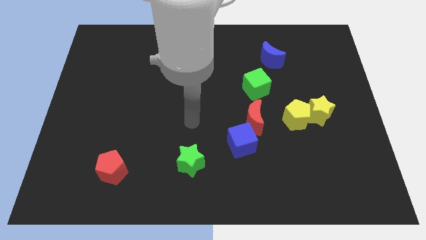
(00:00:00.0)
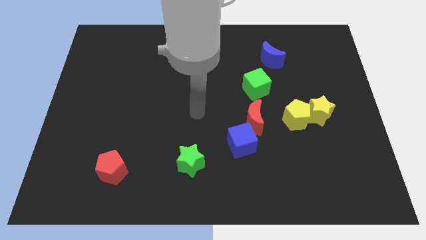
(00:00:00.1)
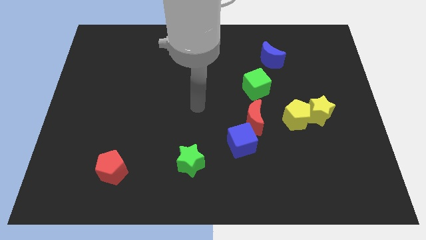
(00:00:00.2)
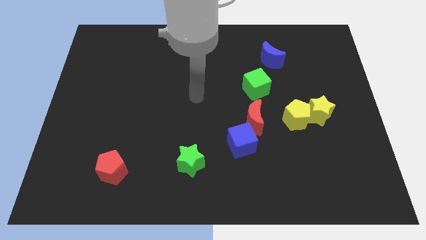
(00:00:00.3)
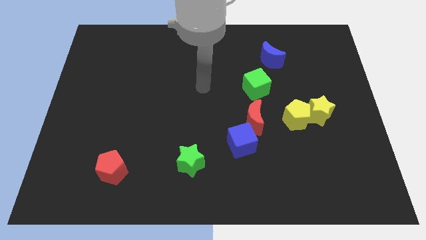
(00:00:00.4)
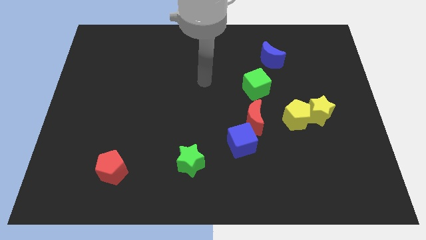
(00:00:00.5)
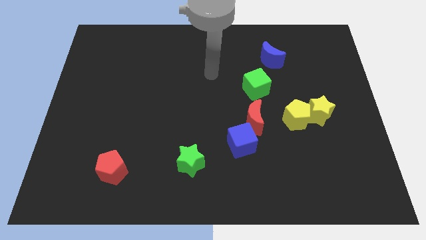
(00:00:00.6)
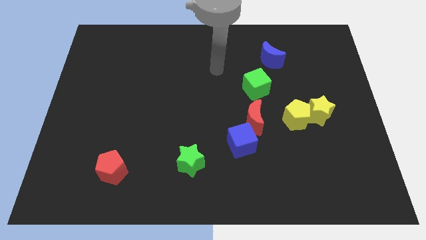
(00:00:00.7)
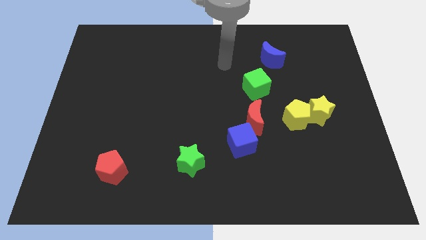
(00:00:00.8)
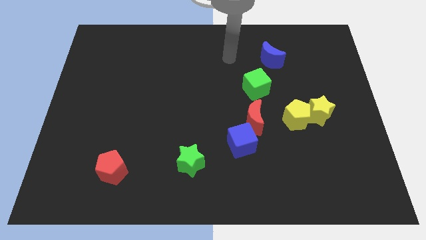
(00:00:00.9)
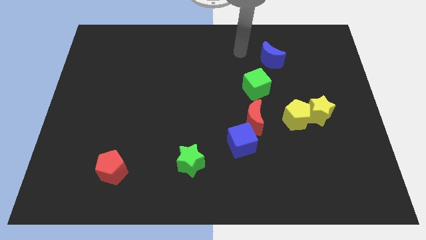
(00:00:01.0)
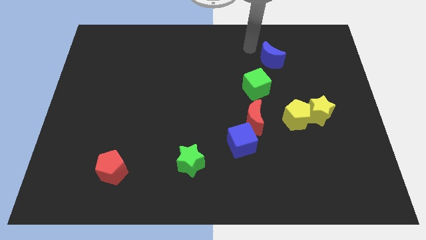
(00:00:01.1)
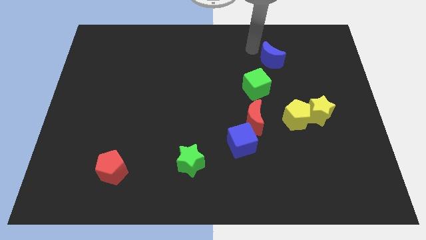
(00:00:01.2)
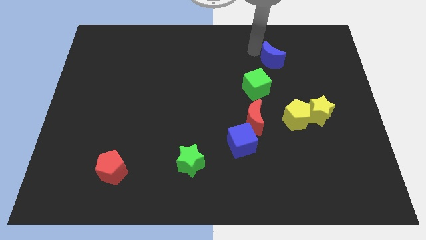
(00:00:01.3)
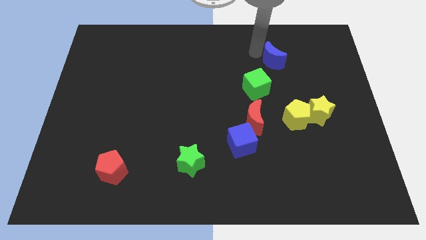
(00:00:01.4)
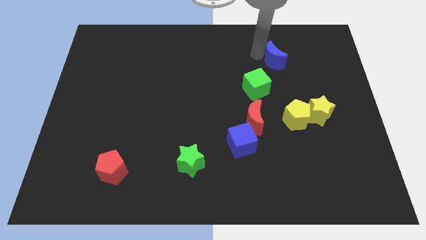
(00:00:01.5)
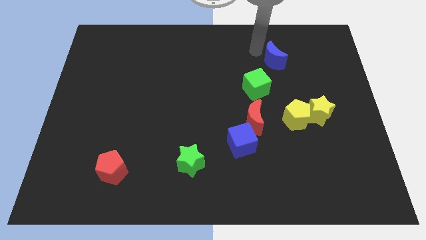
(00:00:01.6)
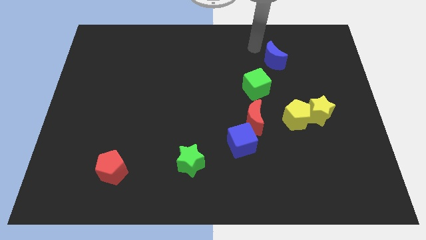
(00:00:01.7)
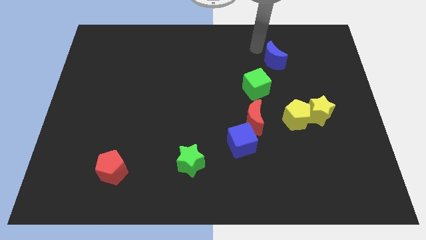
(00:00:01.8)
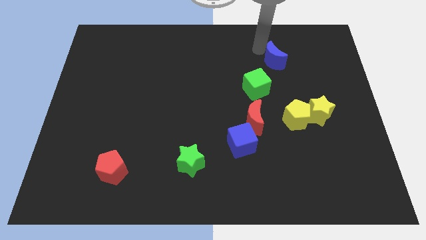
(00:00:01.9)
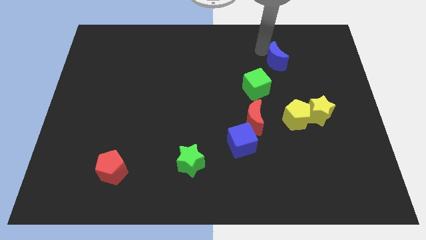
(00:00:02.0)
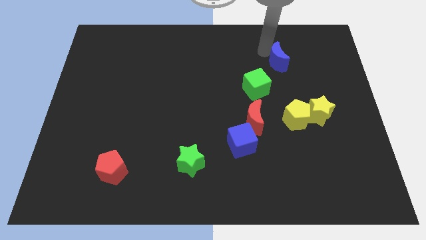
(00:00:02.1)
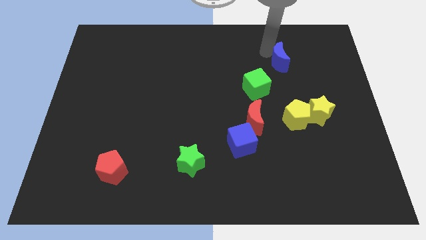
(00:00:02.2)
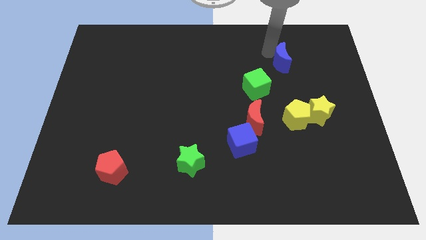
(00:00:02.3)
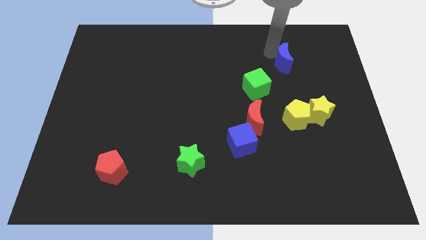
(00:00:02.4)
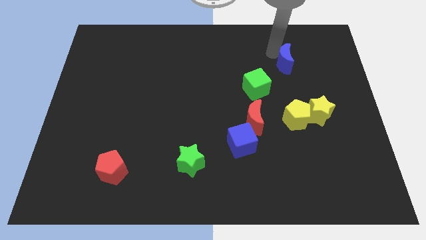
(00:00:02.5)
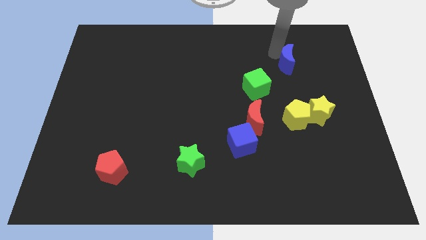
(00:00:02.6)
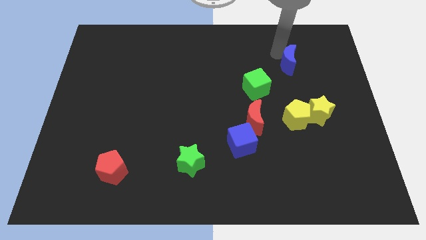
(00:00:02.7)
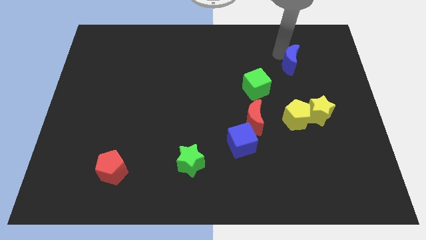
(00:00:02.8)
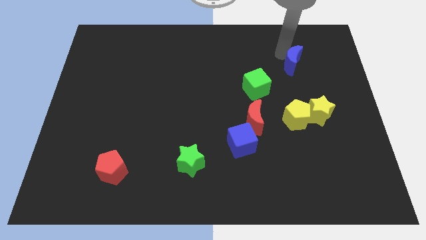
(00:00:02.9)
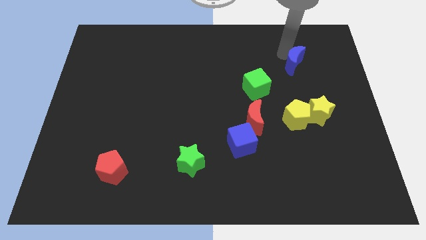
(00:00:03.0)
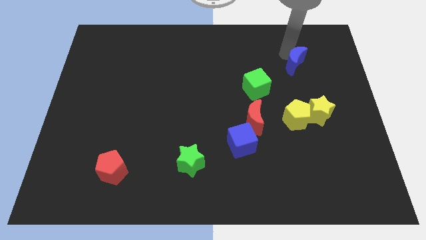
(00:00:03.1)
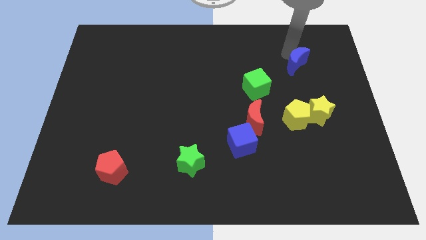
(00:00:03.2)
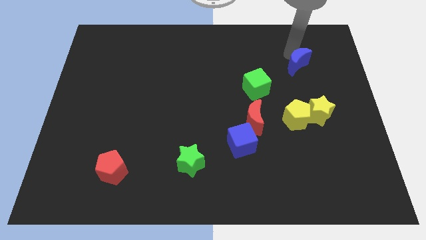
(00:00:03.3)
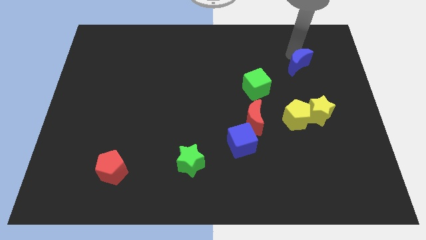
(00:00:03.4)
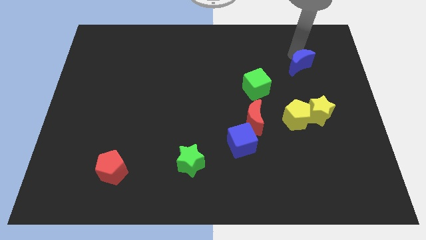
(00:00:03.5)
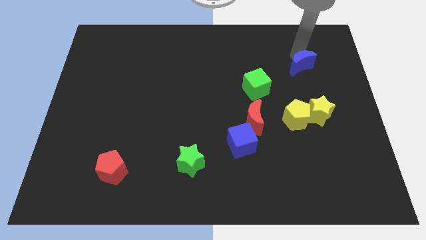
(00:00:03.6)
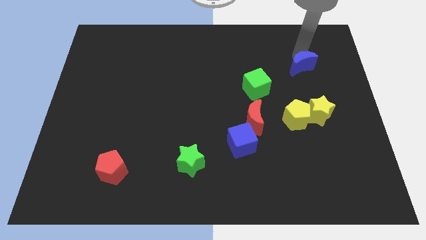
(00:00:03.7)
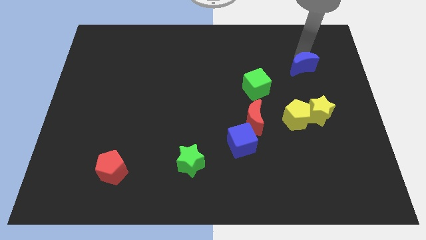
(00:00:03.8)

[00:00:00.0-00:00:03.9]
move the blue moon a bit down and then right

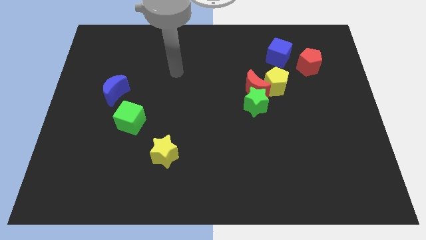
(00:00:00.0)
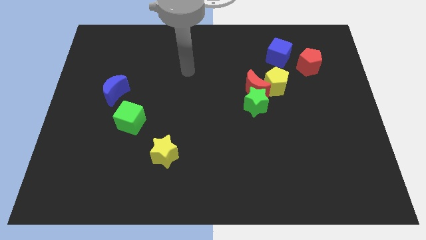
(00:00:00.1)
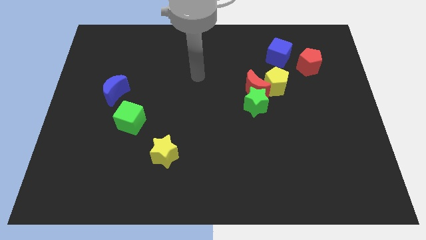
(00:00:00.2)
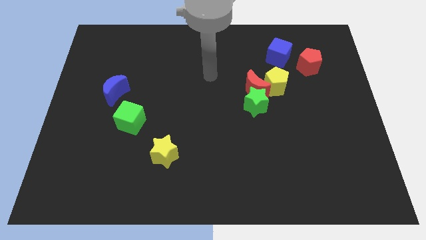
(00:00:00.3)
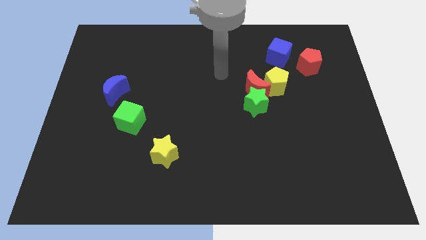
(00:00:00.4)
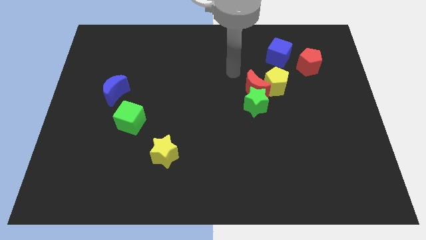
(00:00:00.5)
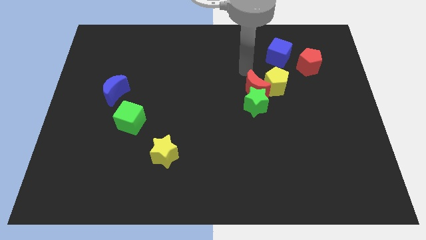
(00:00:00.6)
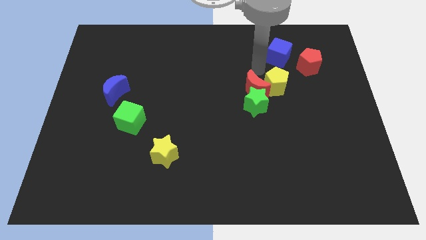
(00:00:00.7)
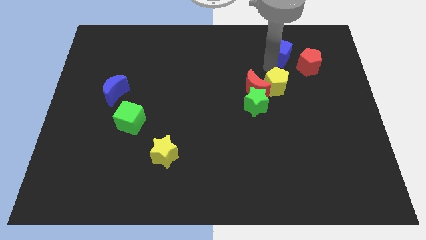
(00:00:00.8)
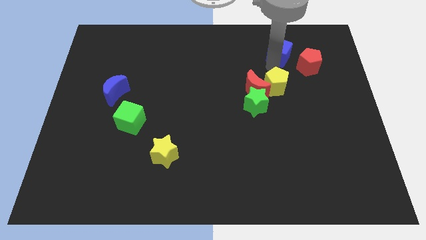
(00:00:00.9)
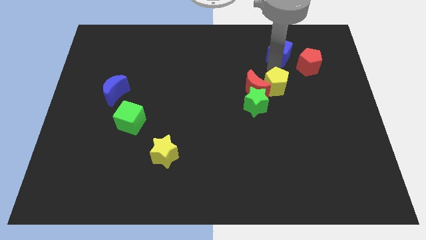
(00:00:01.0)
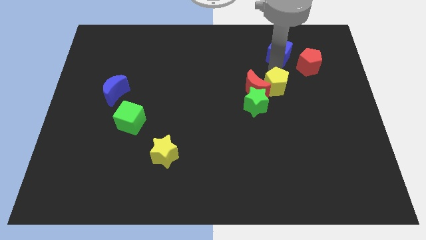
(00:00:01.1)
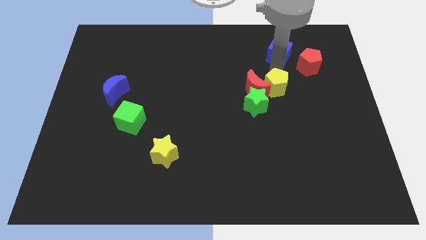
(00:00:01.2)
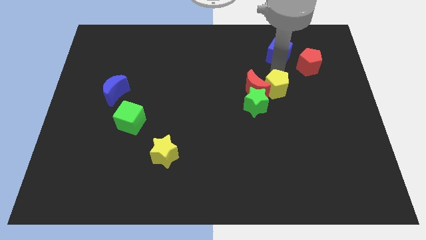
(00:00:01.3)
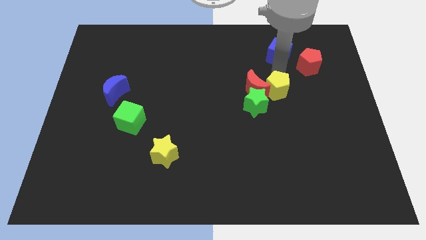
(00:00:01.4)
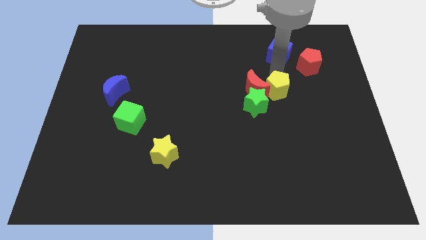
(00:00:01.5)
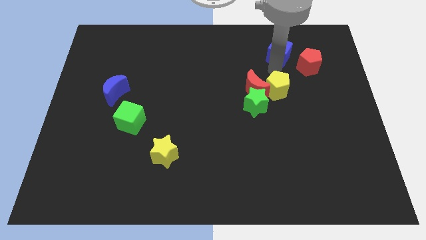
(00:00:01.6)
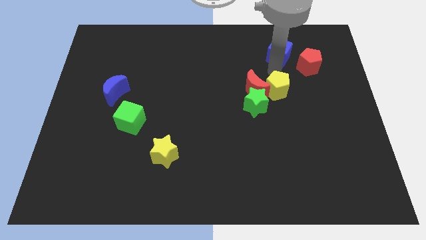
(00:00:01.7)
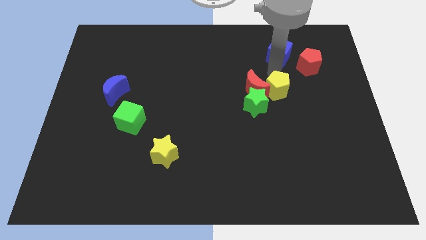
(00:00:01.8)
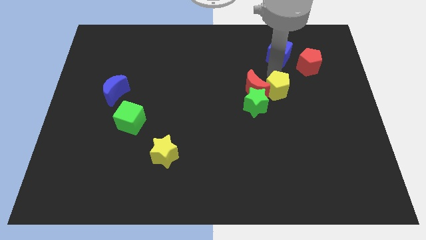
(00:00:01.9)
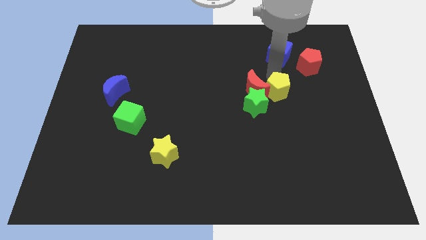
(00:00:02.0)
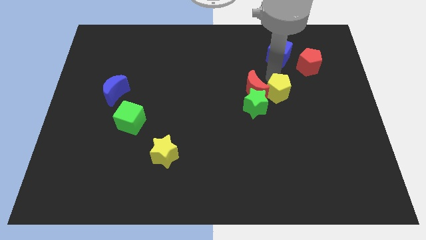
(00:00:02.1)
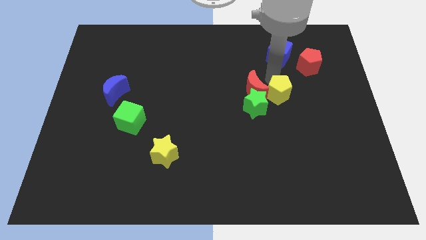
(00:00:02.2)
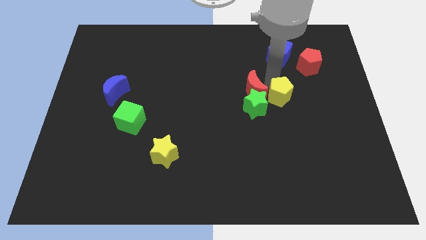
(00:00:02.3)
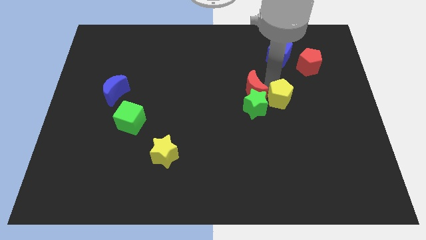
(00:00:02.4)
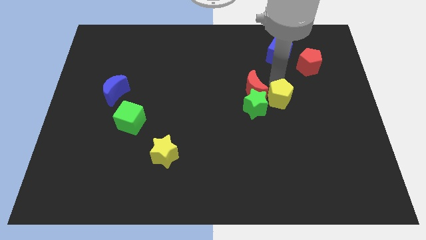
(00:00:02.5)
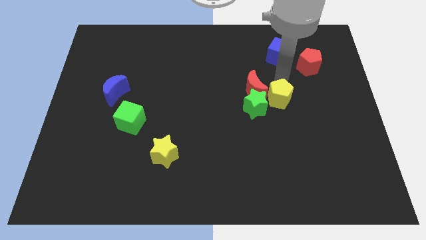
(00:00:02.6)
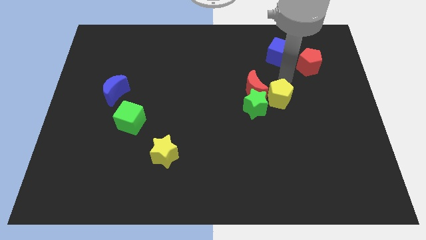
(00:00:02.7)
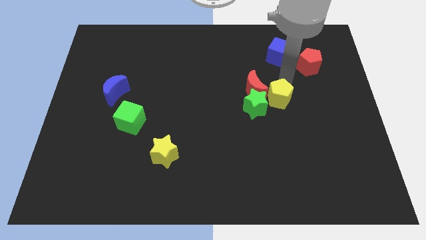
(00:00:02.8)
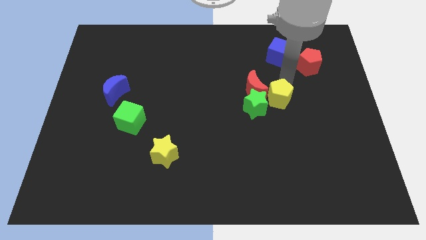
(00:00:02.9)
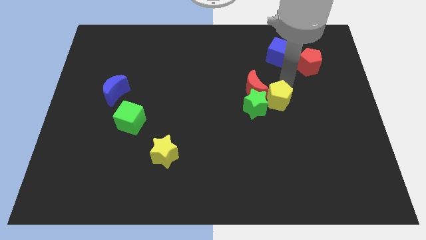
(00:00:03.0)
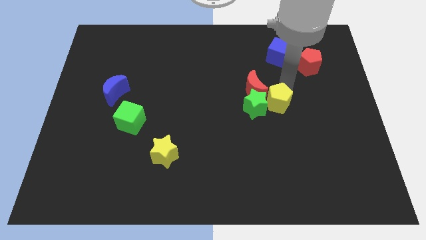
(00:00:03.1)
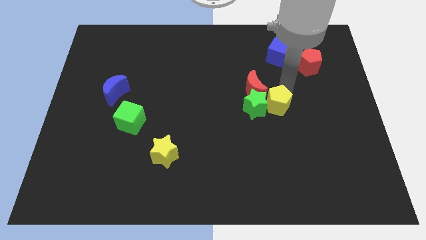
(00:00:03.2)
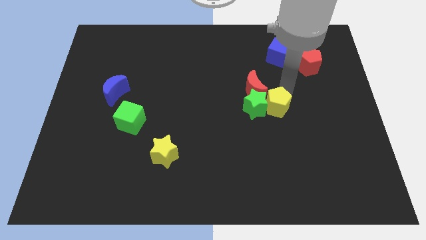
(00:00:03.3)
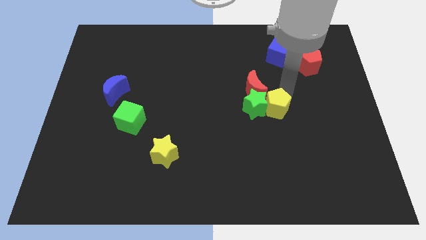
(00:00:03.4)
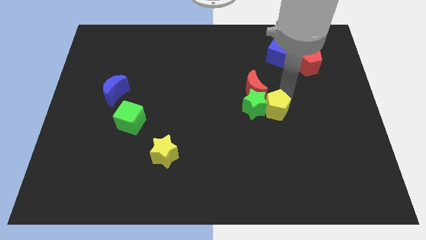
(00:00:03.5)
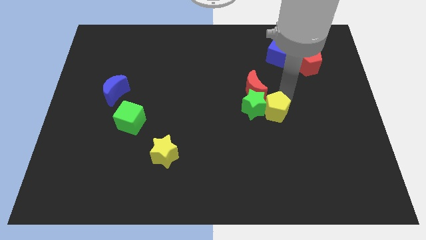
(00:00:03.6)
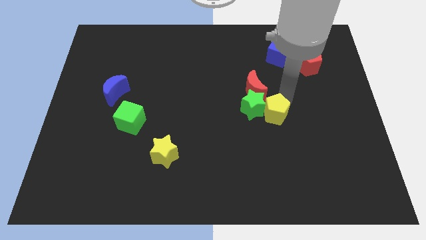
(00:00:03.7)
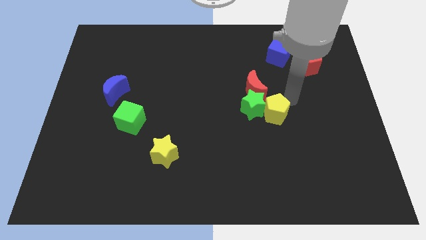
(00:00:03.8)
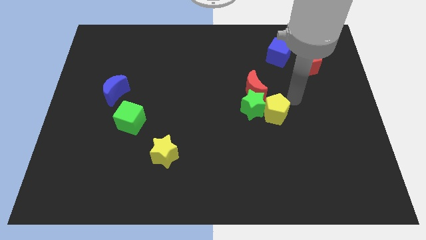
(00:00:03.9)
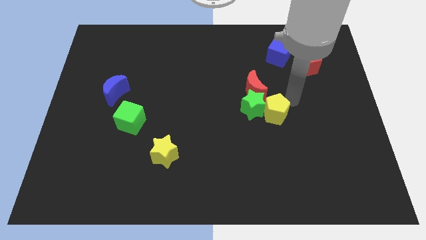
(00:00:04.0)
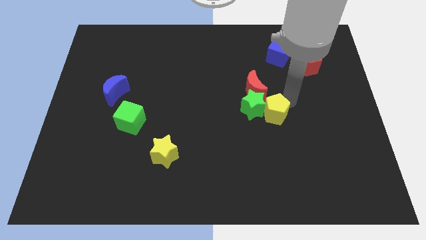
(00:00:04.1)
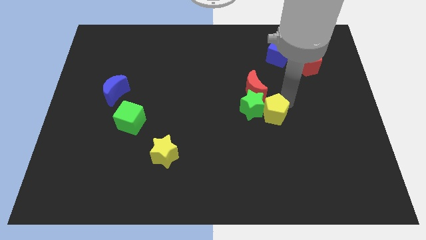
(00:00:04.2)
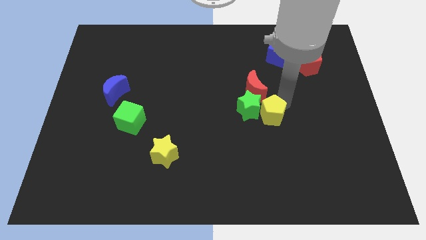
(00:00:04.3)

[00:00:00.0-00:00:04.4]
slide the yellow pentagon a little bit downwards and to the left diagonally
